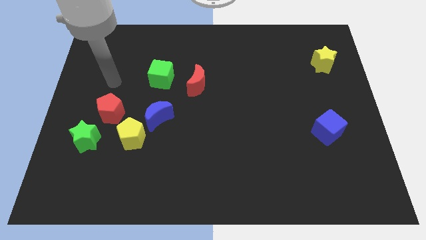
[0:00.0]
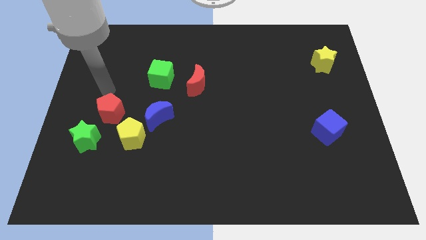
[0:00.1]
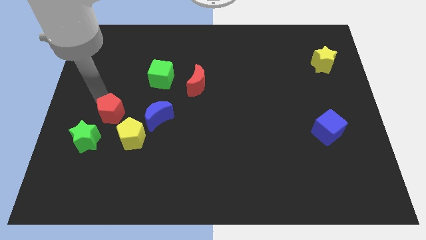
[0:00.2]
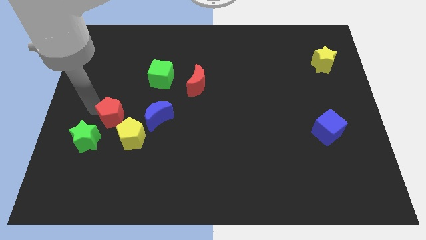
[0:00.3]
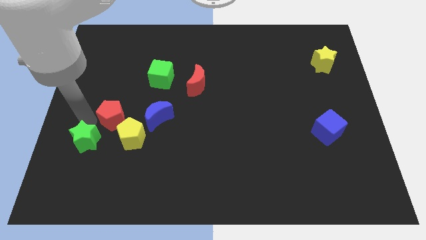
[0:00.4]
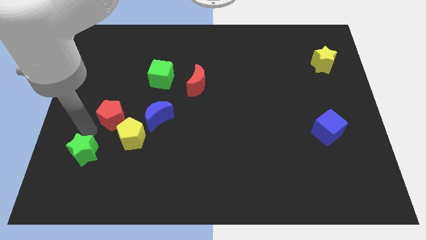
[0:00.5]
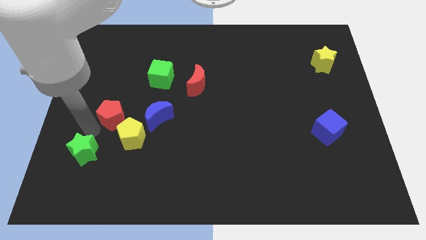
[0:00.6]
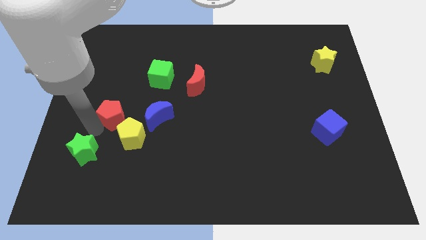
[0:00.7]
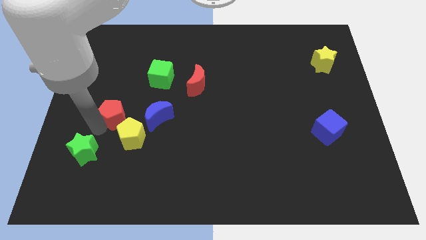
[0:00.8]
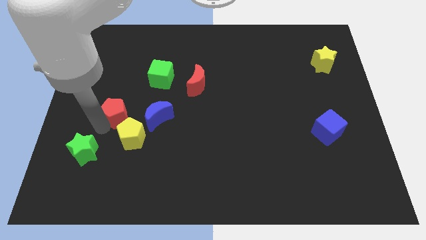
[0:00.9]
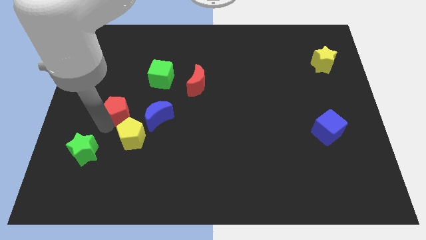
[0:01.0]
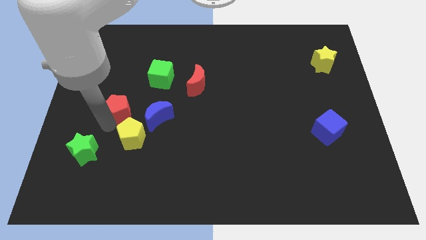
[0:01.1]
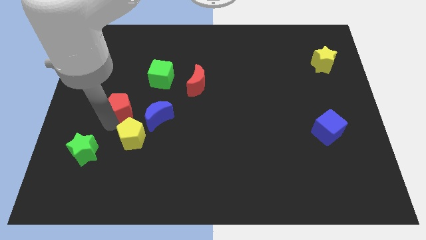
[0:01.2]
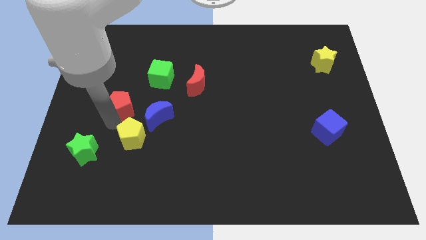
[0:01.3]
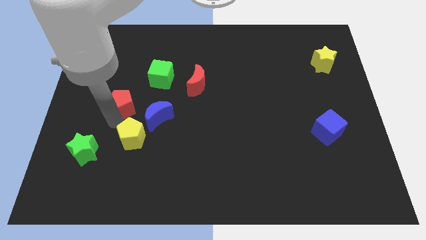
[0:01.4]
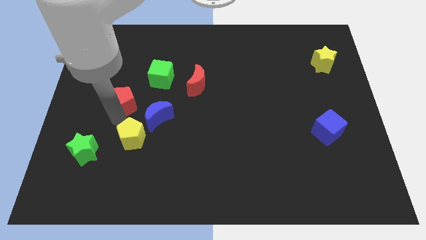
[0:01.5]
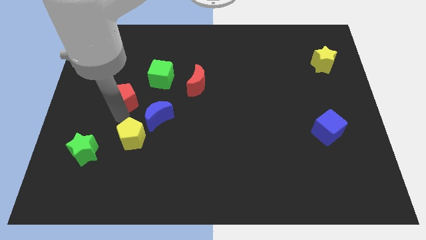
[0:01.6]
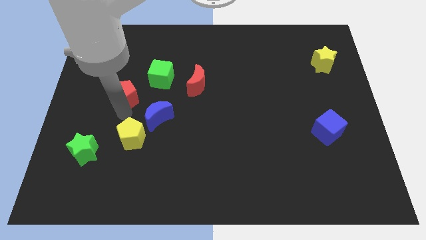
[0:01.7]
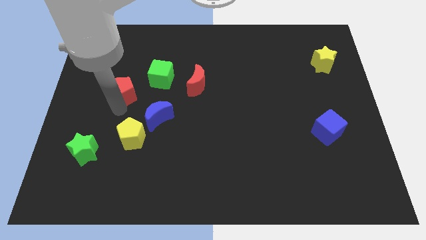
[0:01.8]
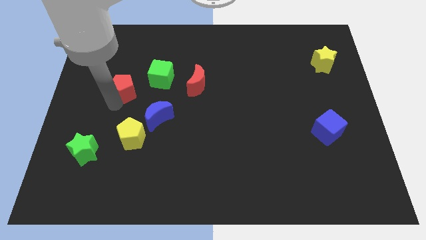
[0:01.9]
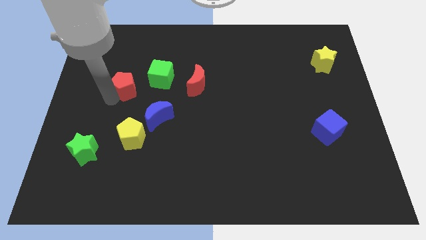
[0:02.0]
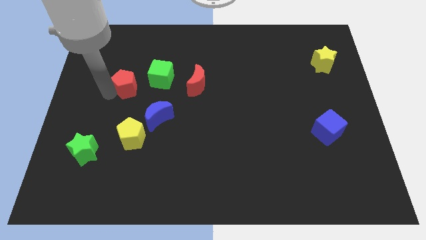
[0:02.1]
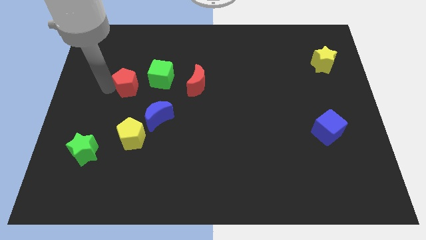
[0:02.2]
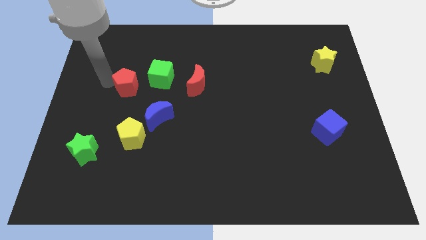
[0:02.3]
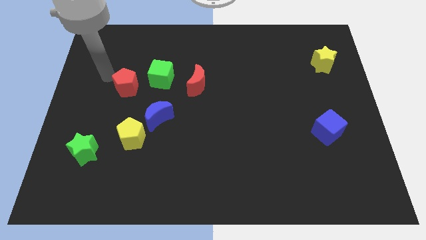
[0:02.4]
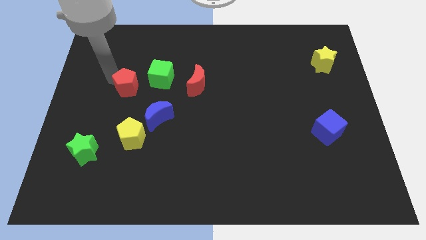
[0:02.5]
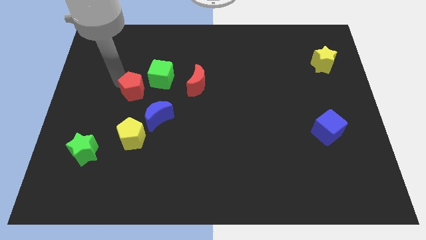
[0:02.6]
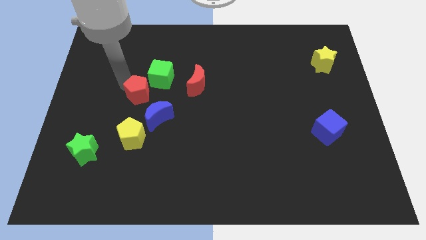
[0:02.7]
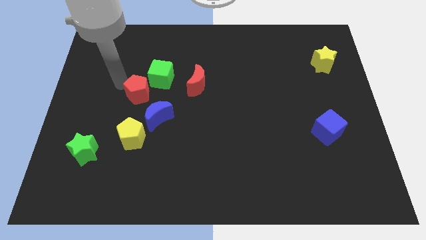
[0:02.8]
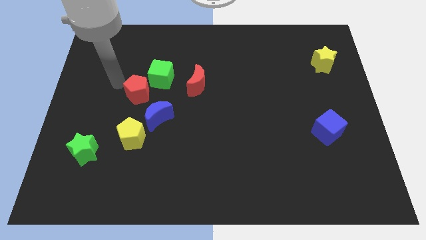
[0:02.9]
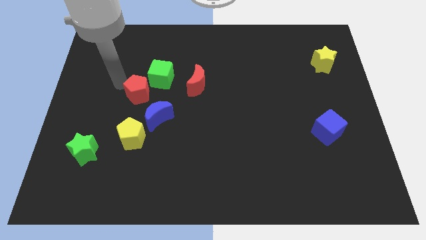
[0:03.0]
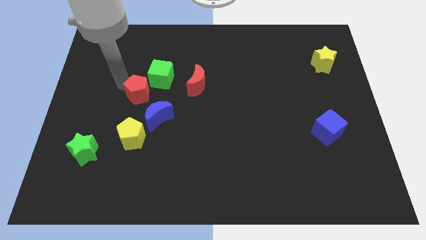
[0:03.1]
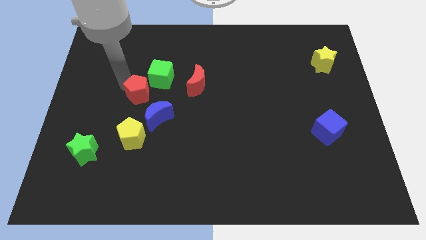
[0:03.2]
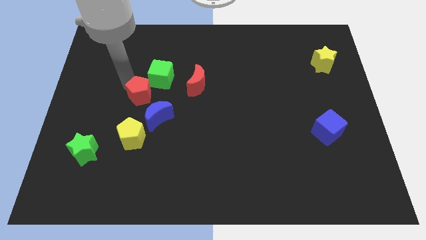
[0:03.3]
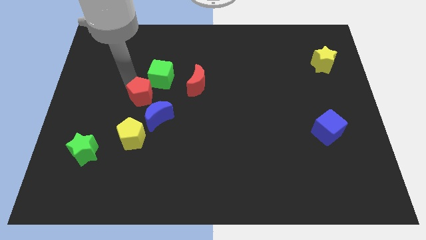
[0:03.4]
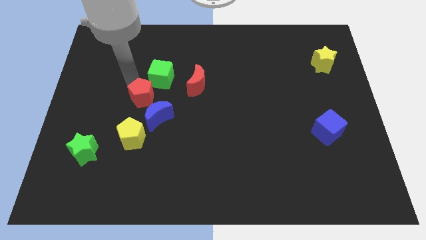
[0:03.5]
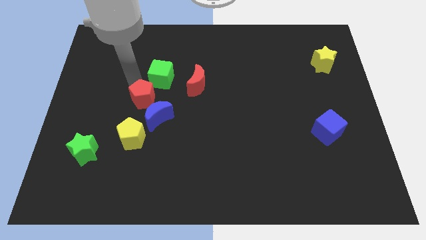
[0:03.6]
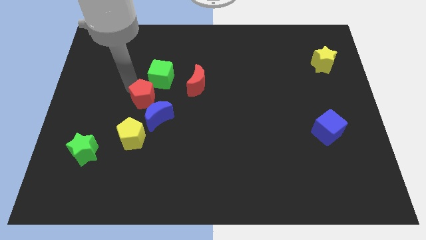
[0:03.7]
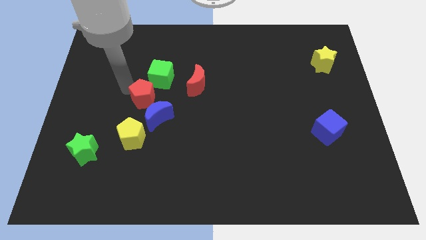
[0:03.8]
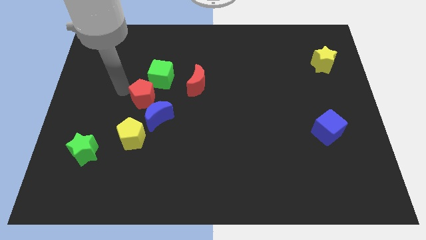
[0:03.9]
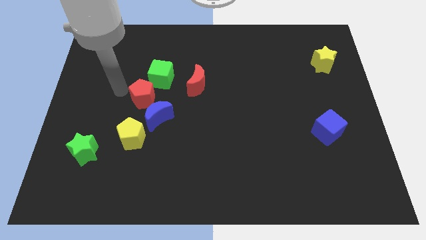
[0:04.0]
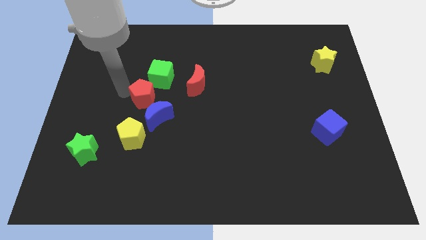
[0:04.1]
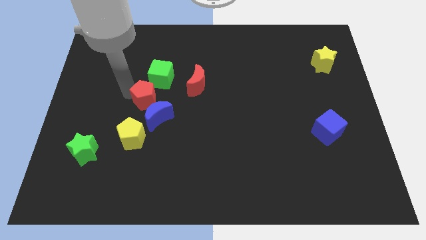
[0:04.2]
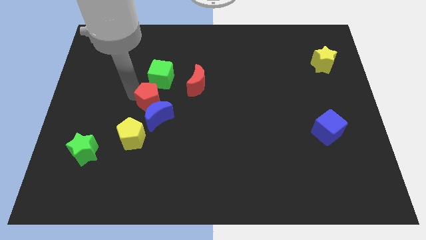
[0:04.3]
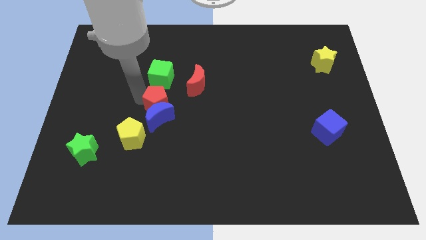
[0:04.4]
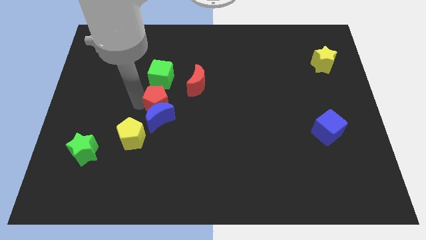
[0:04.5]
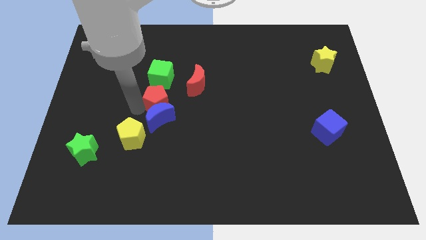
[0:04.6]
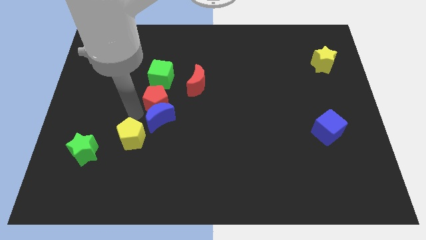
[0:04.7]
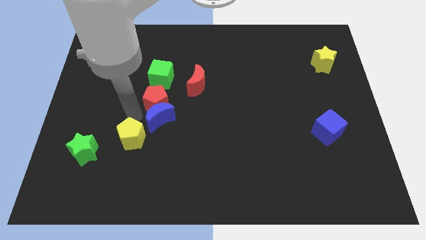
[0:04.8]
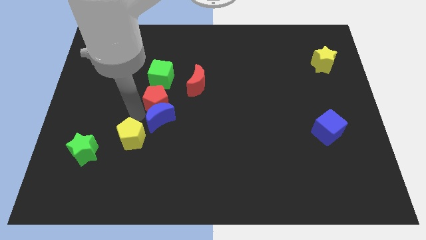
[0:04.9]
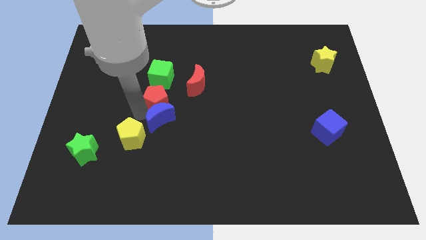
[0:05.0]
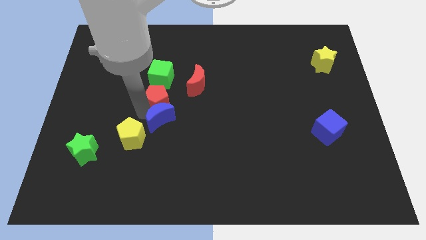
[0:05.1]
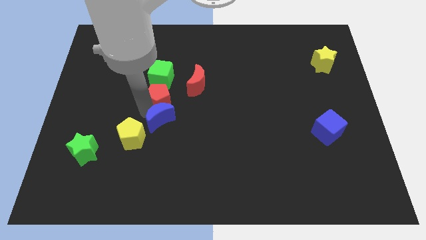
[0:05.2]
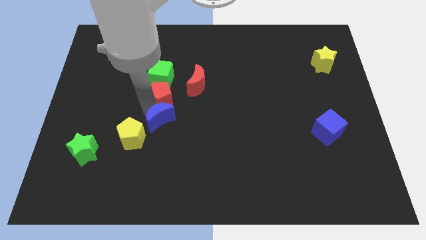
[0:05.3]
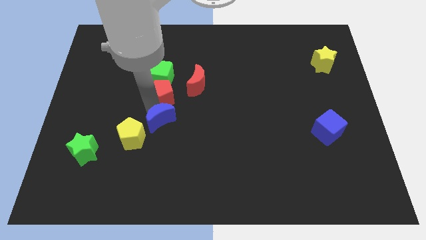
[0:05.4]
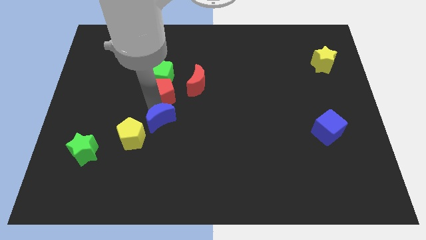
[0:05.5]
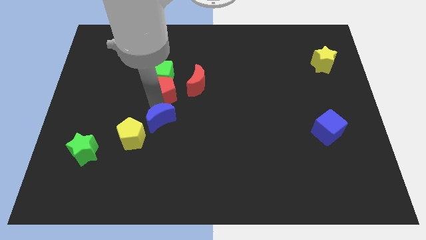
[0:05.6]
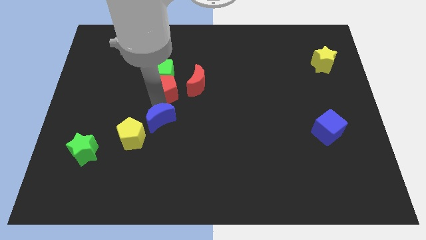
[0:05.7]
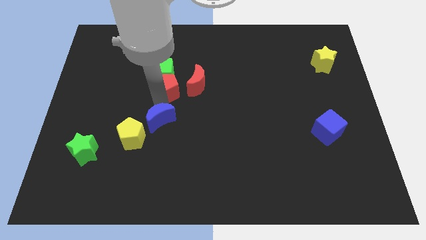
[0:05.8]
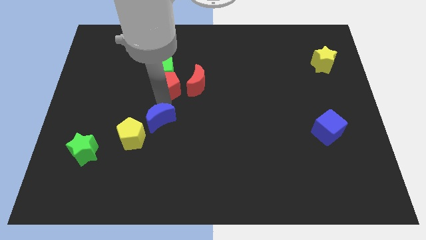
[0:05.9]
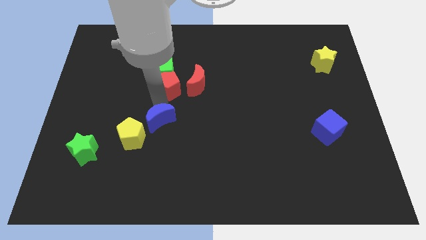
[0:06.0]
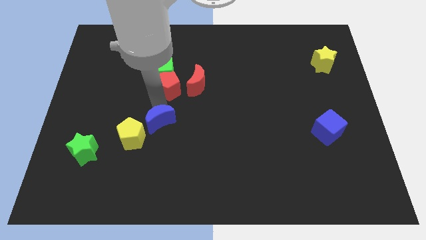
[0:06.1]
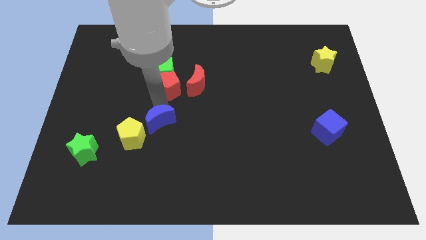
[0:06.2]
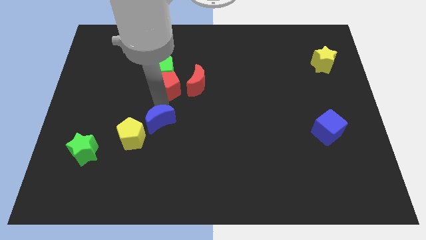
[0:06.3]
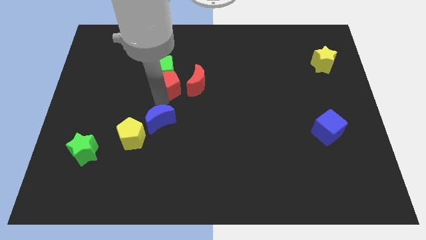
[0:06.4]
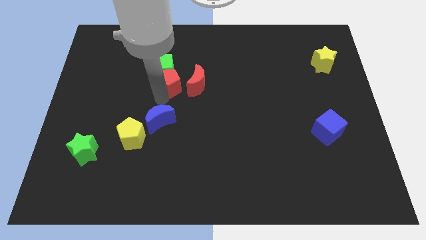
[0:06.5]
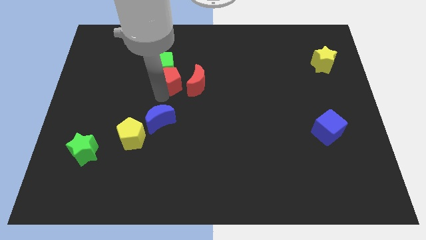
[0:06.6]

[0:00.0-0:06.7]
slide the red pentagon diagonally up and to the left of the red moon

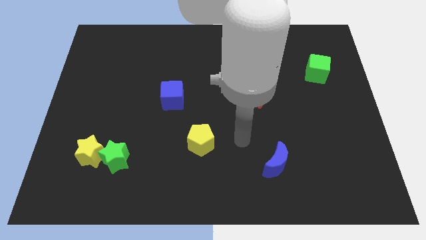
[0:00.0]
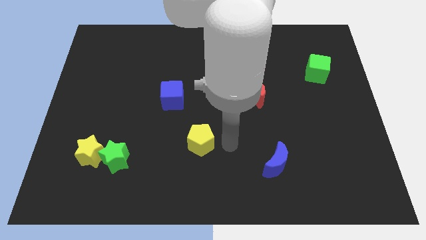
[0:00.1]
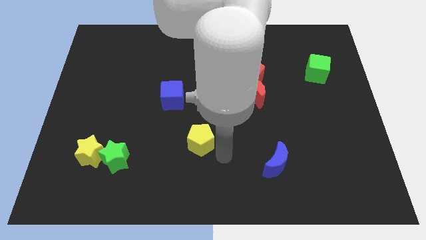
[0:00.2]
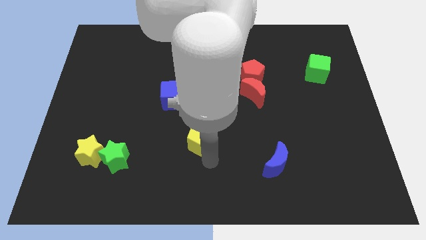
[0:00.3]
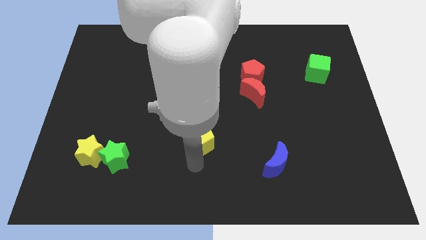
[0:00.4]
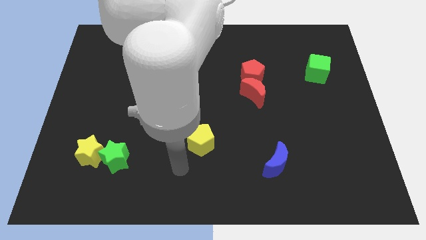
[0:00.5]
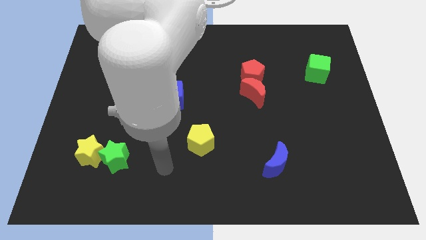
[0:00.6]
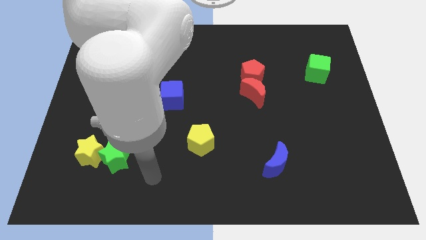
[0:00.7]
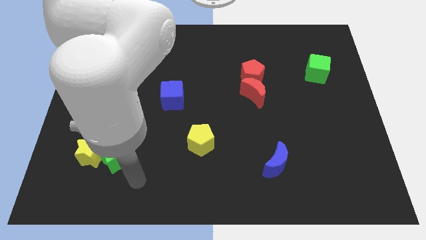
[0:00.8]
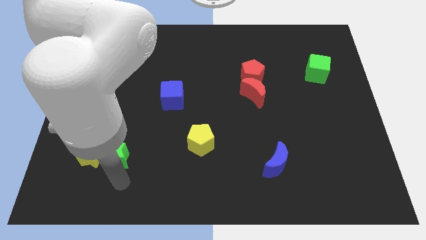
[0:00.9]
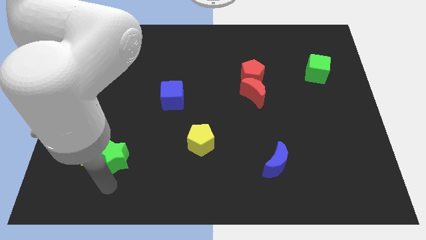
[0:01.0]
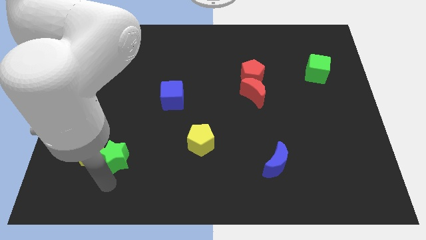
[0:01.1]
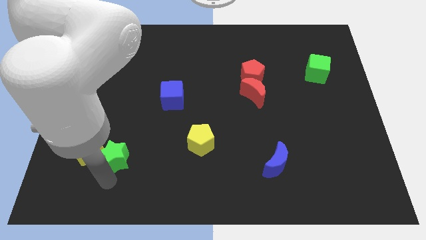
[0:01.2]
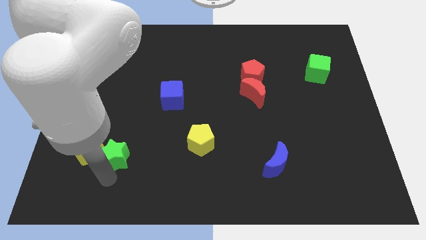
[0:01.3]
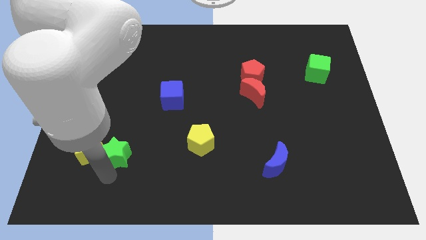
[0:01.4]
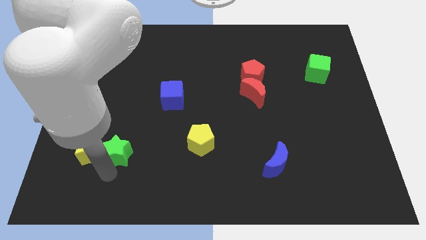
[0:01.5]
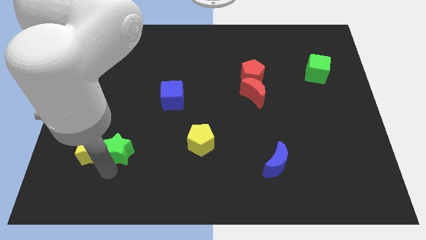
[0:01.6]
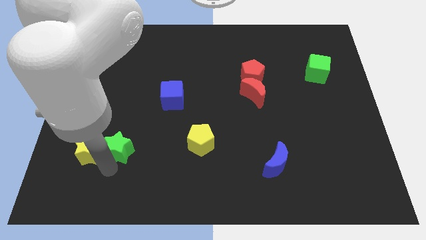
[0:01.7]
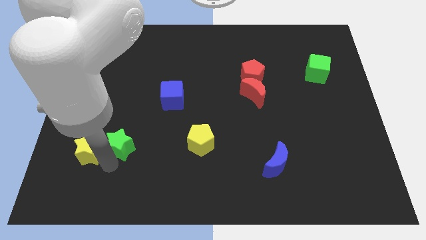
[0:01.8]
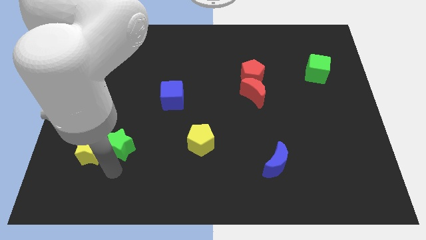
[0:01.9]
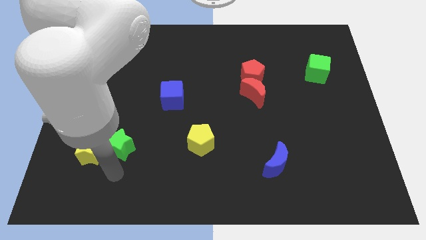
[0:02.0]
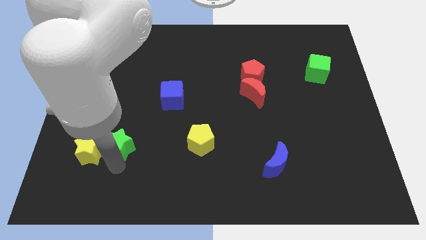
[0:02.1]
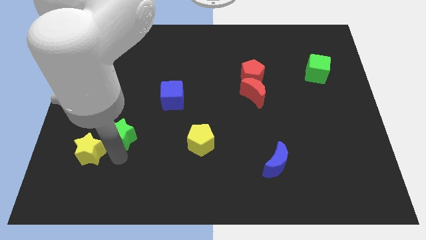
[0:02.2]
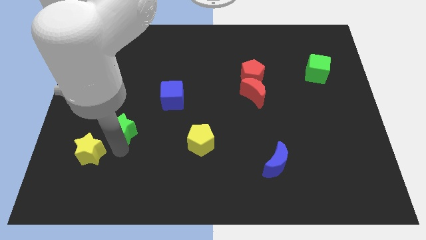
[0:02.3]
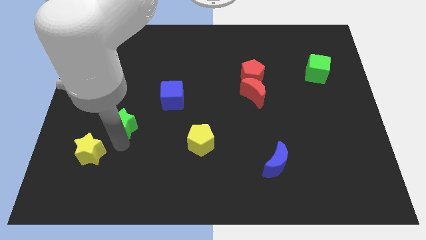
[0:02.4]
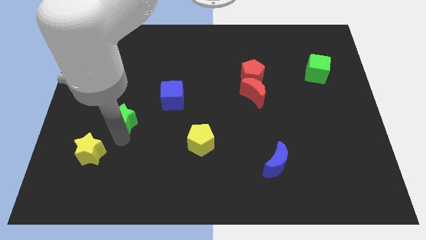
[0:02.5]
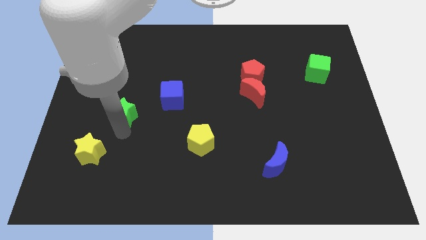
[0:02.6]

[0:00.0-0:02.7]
slide the green star just left of the blue cube
